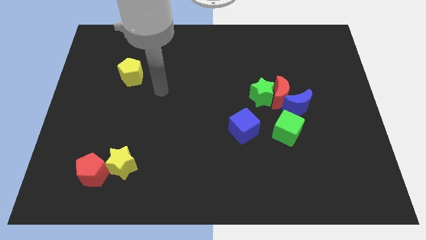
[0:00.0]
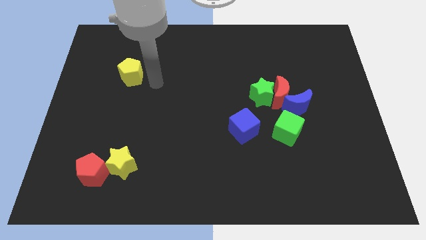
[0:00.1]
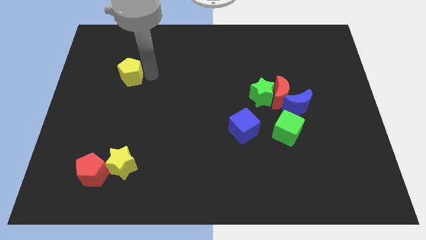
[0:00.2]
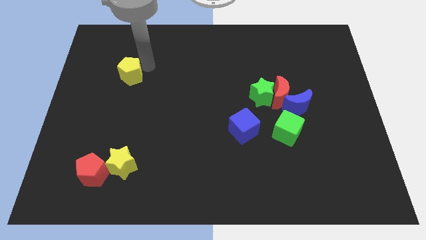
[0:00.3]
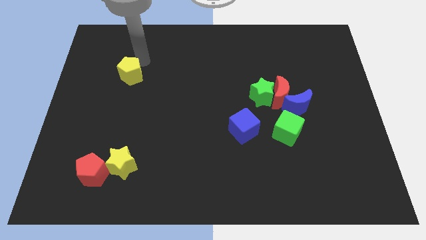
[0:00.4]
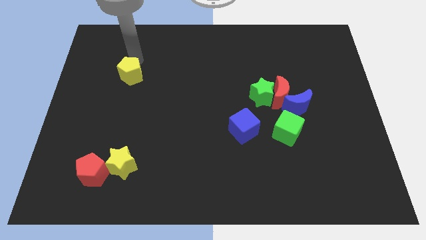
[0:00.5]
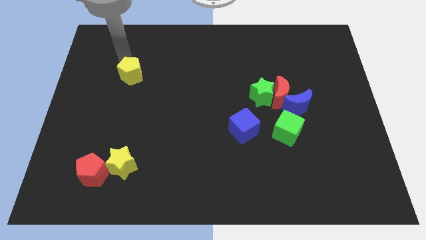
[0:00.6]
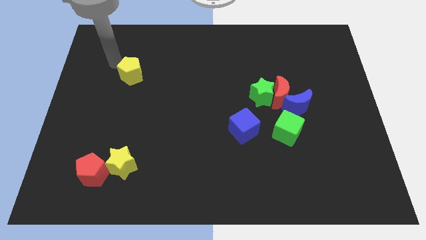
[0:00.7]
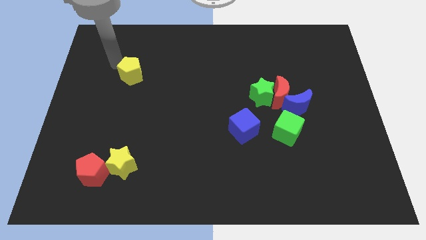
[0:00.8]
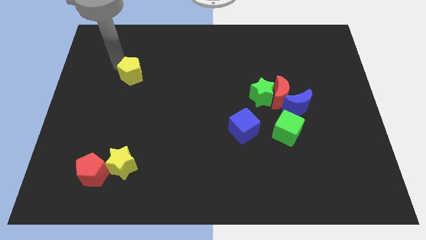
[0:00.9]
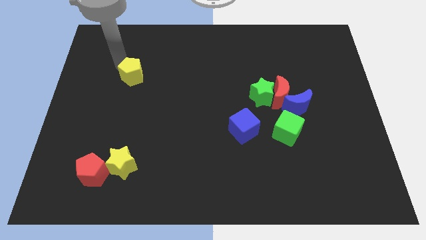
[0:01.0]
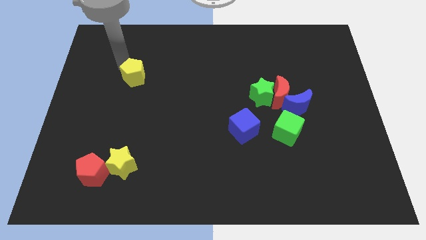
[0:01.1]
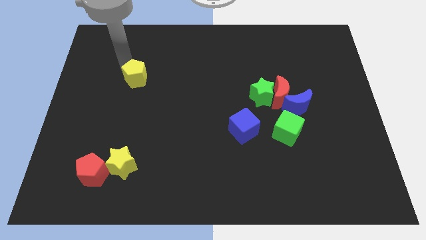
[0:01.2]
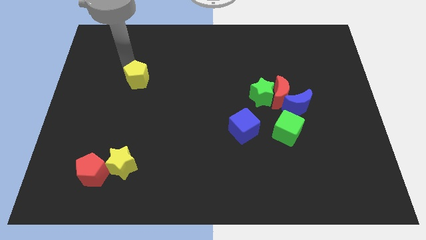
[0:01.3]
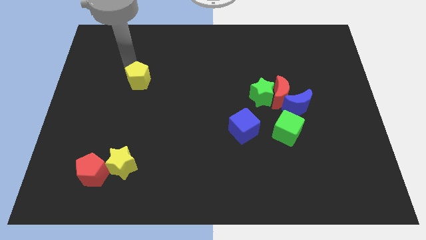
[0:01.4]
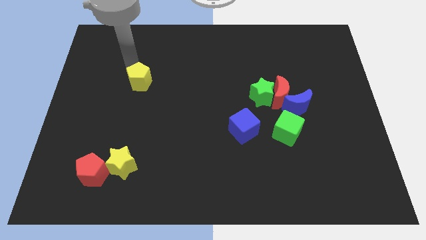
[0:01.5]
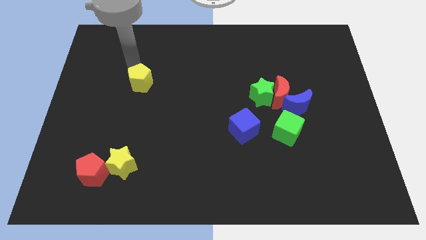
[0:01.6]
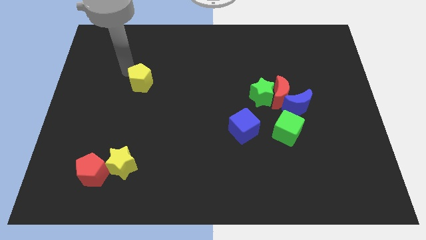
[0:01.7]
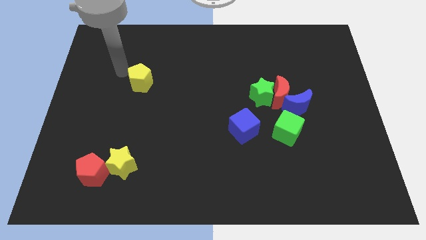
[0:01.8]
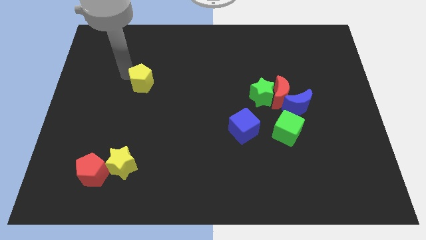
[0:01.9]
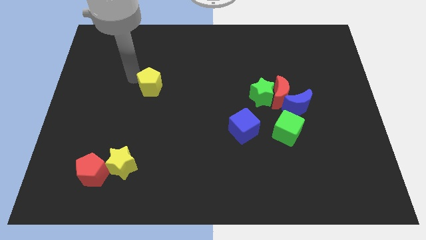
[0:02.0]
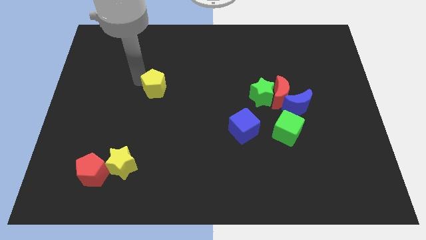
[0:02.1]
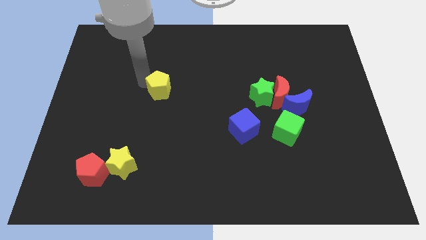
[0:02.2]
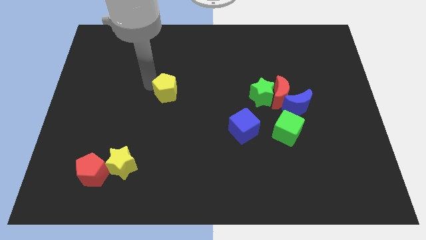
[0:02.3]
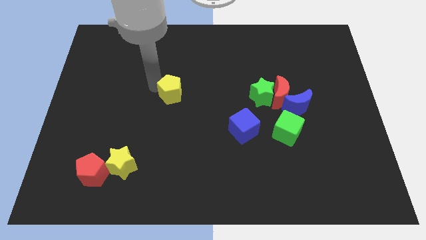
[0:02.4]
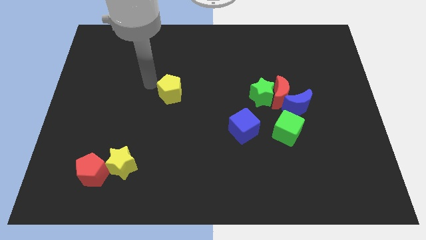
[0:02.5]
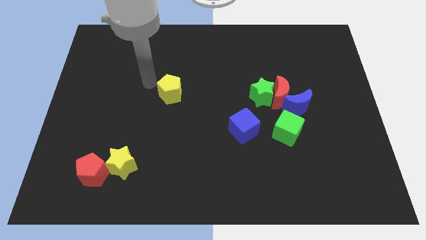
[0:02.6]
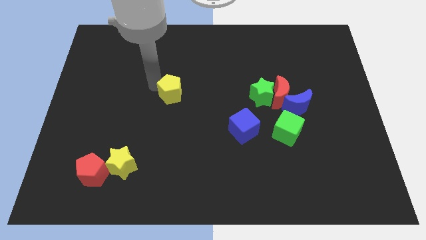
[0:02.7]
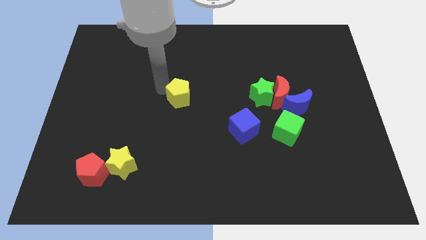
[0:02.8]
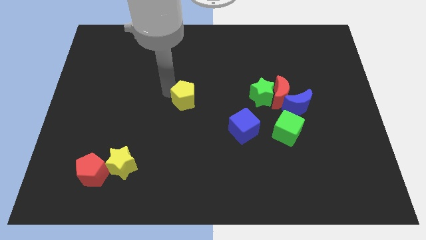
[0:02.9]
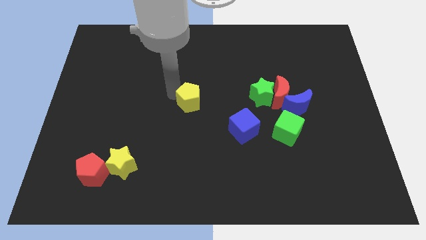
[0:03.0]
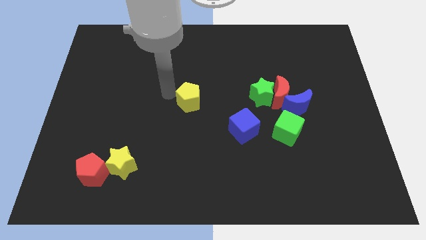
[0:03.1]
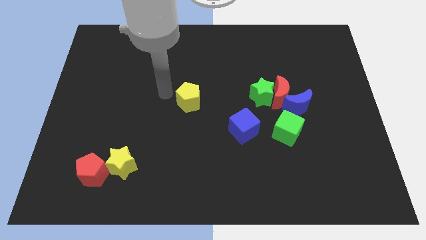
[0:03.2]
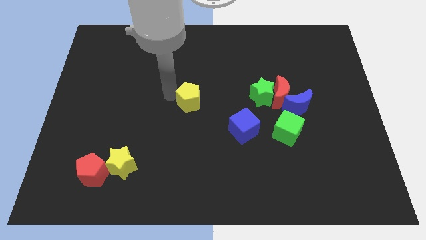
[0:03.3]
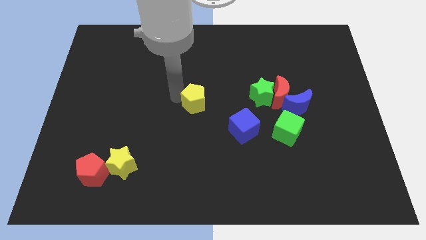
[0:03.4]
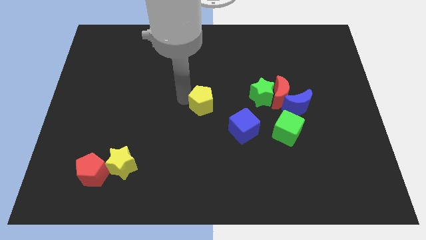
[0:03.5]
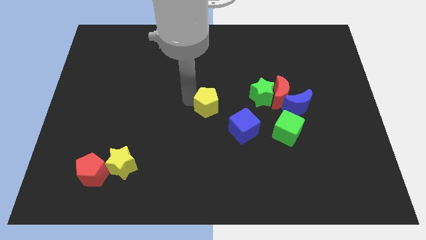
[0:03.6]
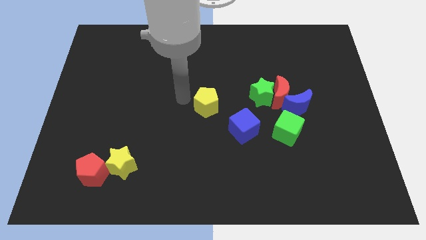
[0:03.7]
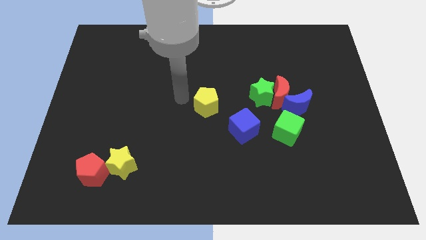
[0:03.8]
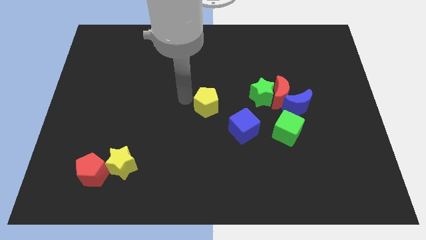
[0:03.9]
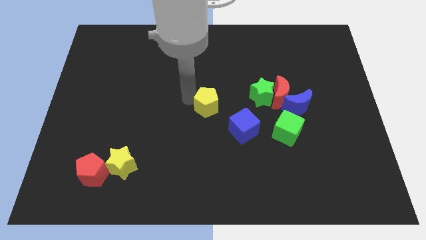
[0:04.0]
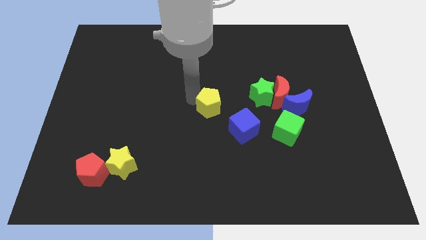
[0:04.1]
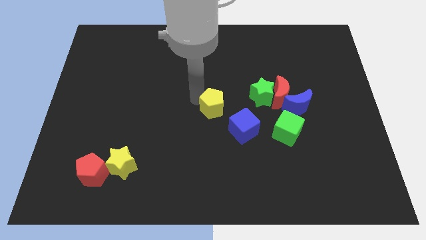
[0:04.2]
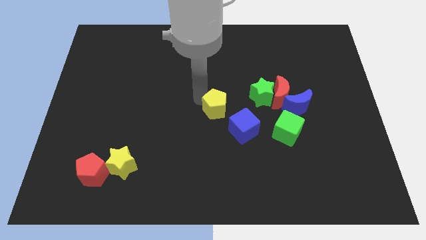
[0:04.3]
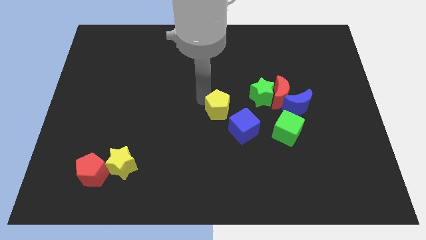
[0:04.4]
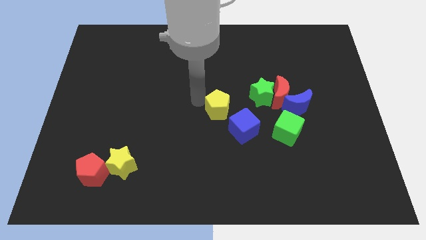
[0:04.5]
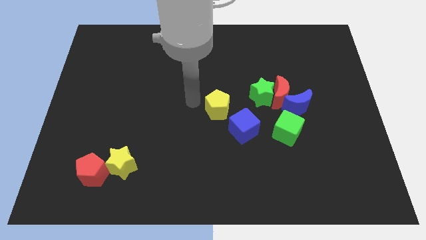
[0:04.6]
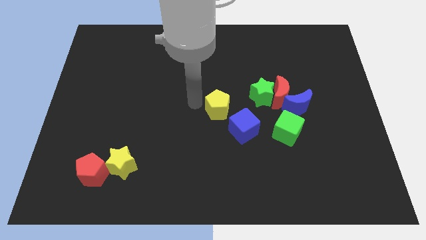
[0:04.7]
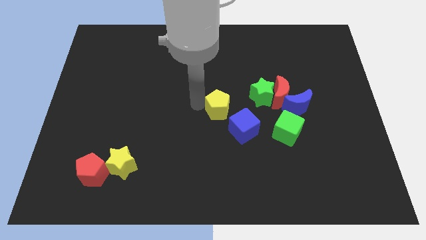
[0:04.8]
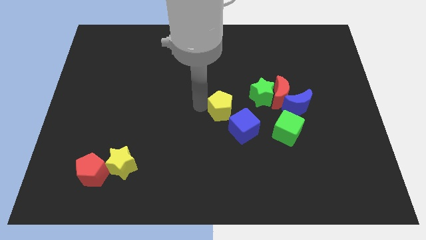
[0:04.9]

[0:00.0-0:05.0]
move the yellow pentagon to the bottom left of the green star

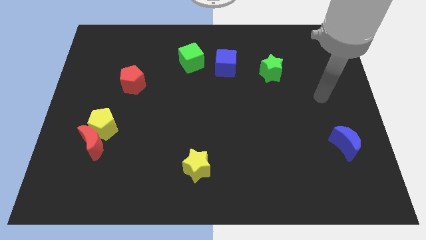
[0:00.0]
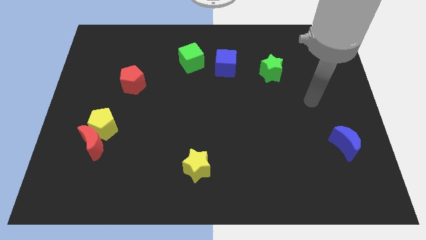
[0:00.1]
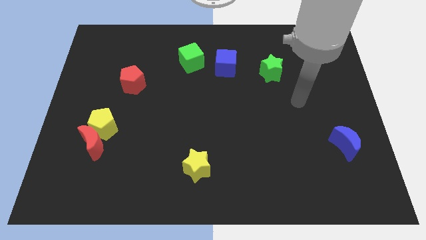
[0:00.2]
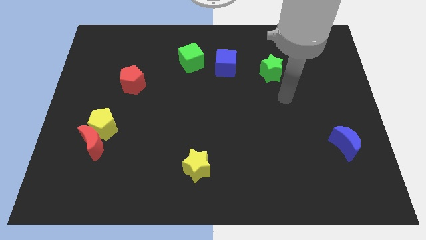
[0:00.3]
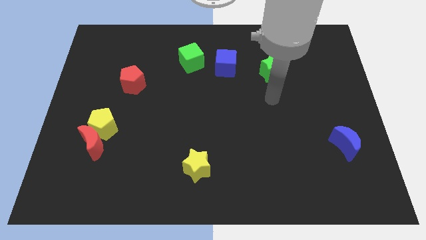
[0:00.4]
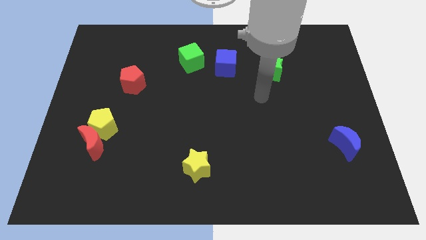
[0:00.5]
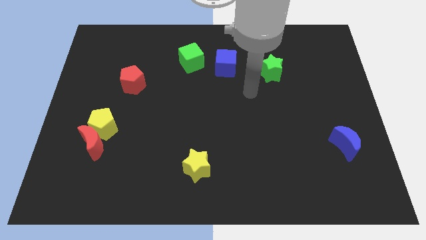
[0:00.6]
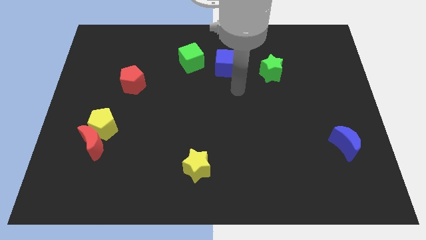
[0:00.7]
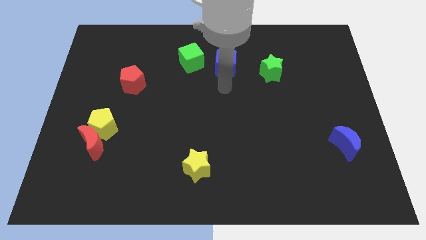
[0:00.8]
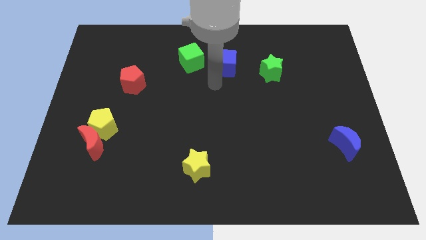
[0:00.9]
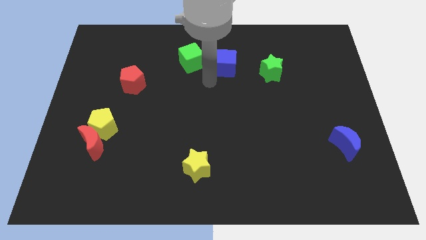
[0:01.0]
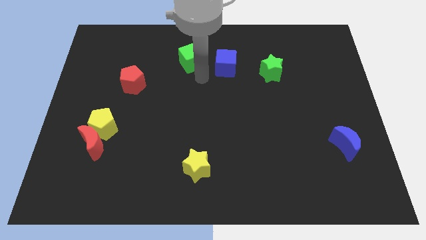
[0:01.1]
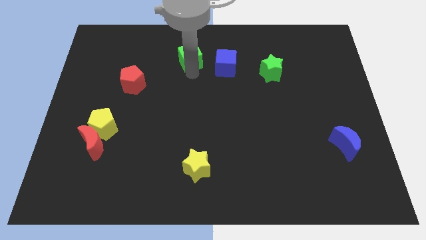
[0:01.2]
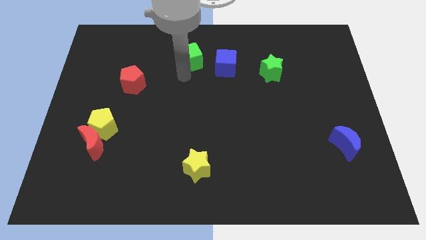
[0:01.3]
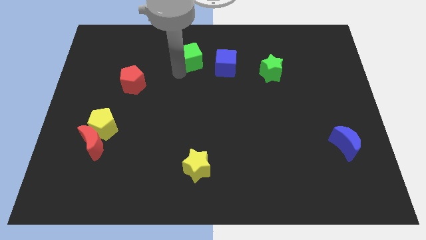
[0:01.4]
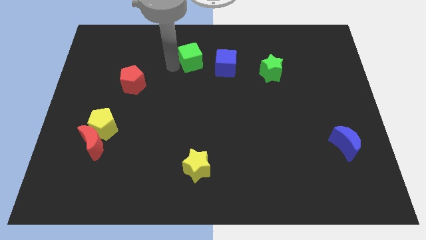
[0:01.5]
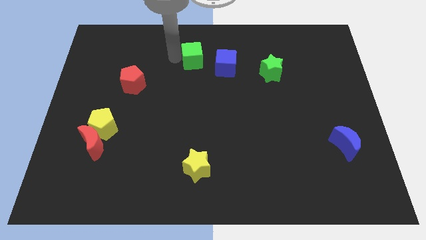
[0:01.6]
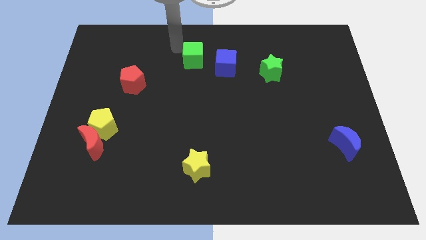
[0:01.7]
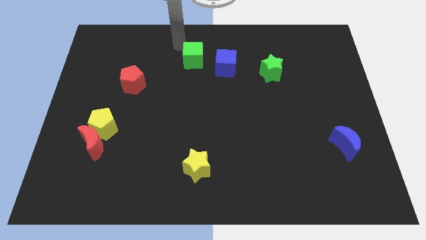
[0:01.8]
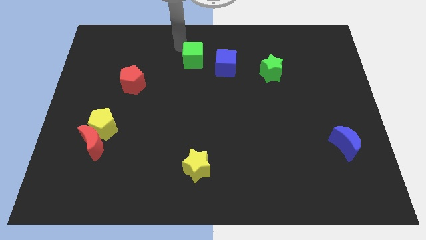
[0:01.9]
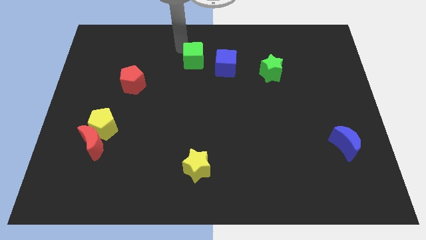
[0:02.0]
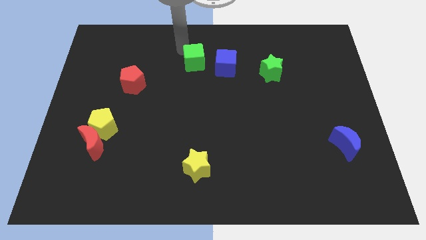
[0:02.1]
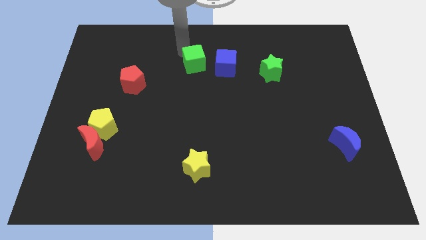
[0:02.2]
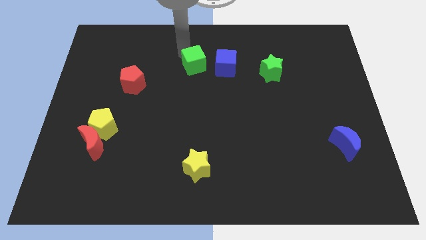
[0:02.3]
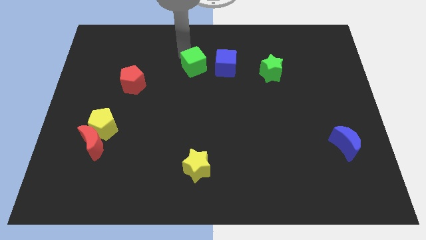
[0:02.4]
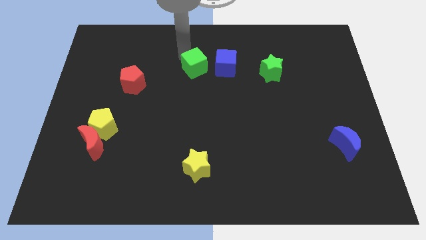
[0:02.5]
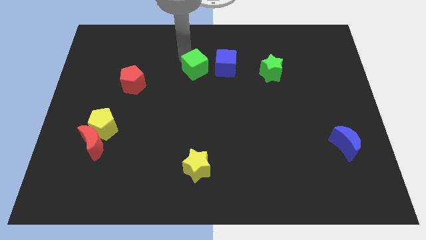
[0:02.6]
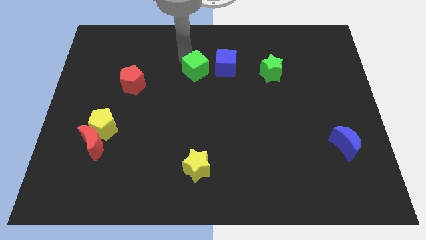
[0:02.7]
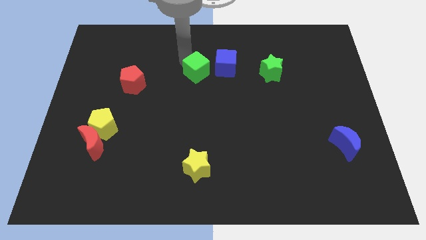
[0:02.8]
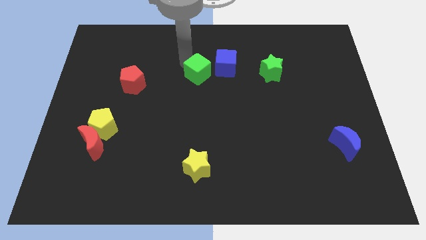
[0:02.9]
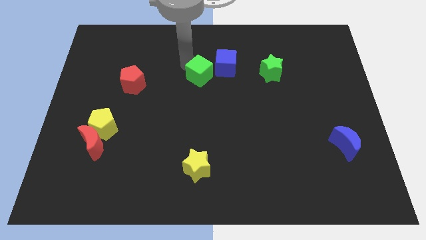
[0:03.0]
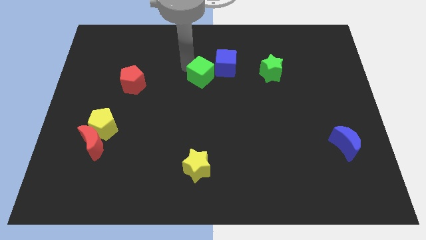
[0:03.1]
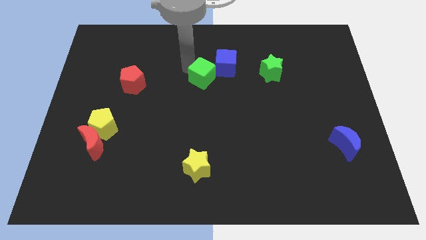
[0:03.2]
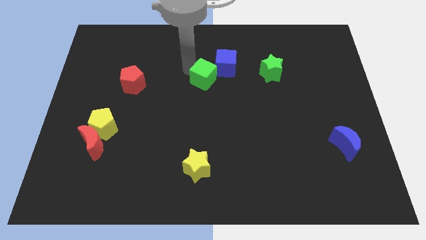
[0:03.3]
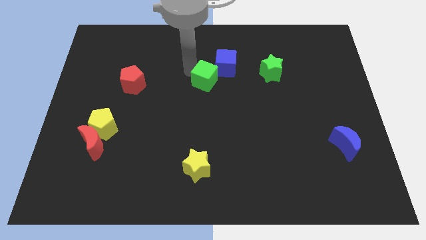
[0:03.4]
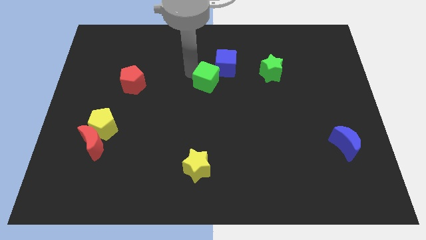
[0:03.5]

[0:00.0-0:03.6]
put the green cube to the bottom of the blue cube

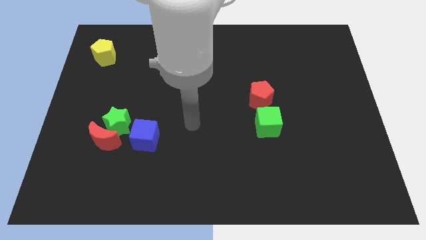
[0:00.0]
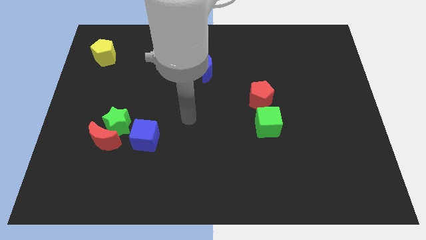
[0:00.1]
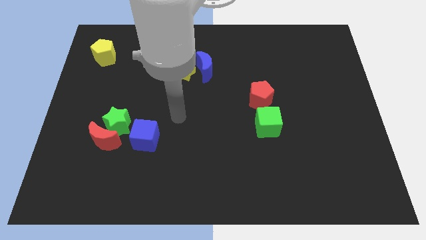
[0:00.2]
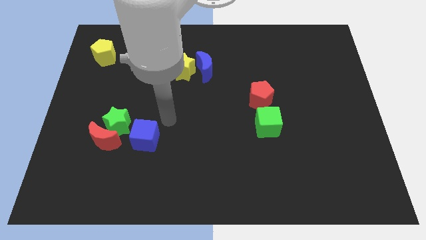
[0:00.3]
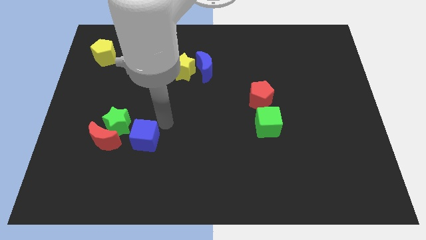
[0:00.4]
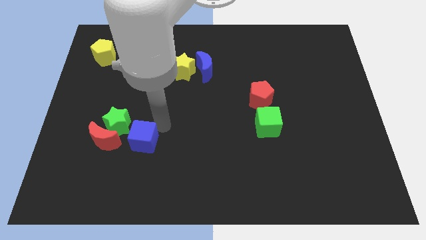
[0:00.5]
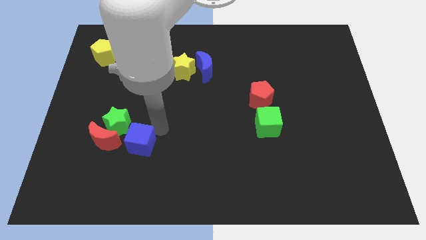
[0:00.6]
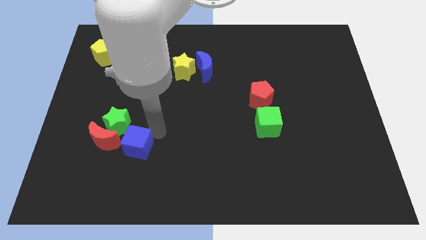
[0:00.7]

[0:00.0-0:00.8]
push the blue cube to the bottom of the green star
